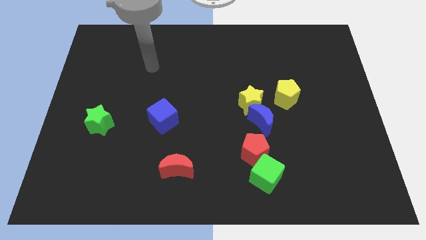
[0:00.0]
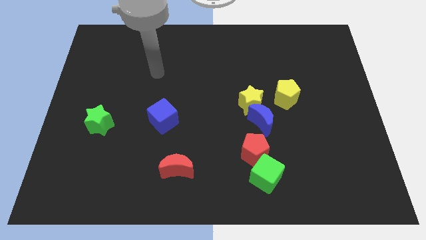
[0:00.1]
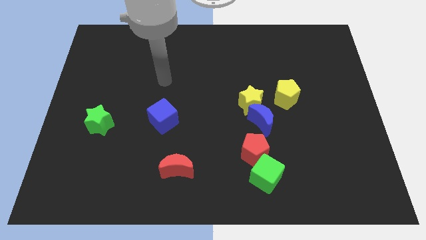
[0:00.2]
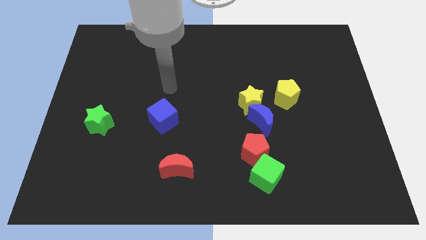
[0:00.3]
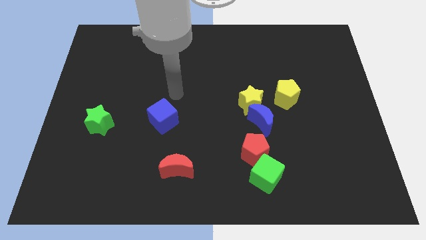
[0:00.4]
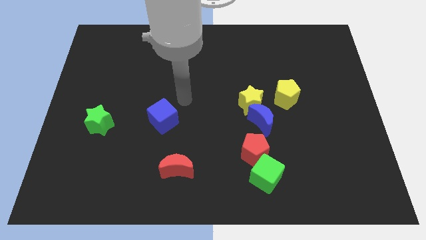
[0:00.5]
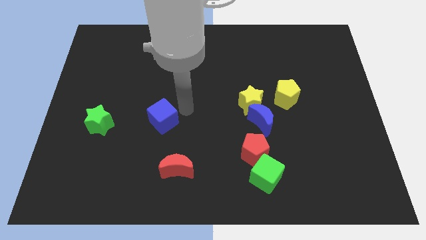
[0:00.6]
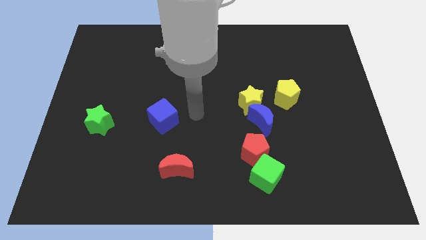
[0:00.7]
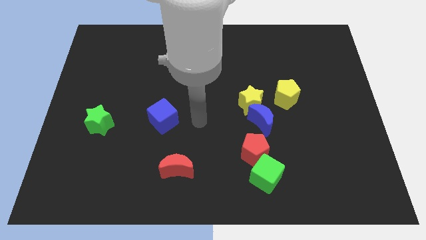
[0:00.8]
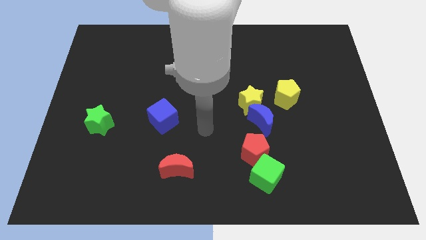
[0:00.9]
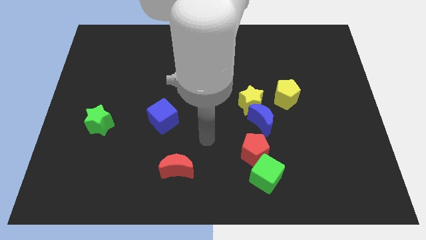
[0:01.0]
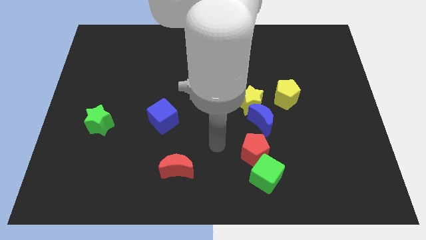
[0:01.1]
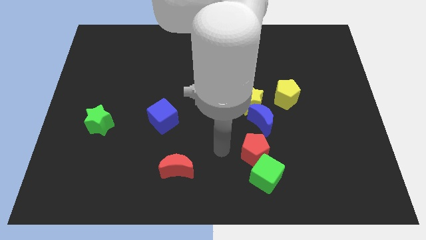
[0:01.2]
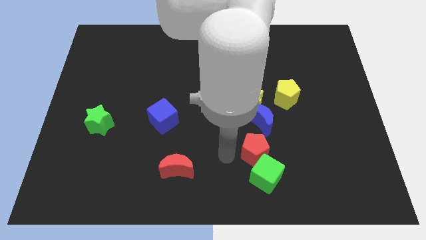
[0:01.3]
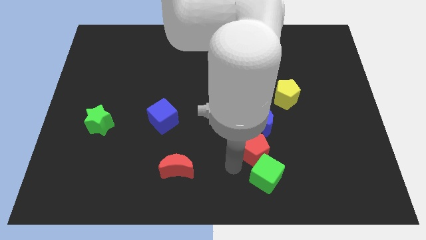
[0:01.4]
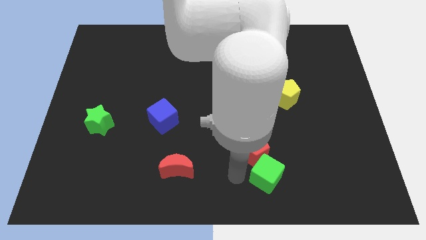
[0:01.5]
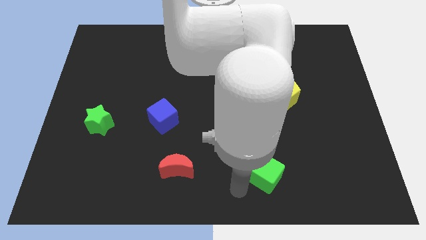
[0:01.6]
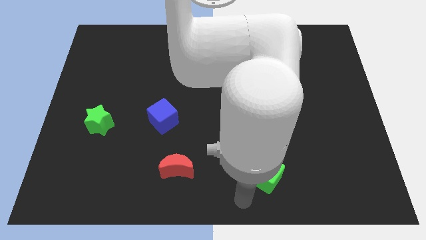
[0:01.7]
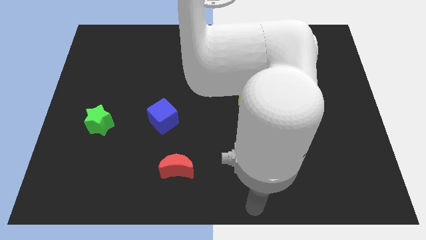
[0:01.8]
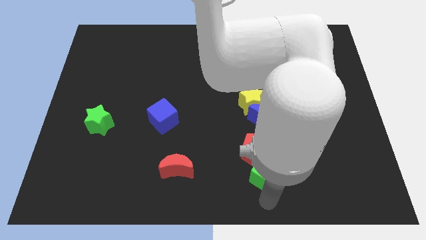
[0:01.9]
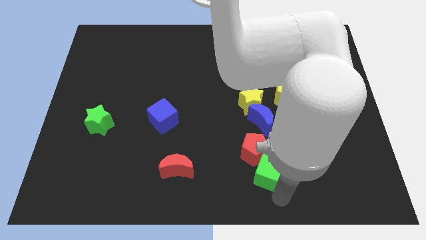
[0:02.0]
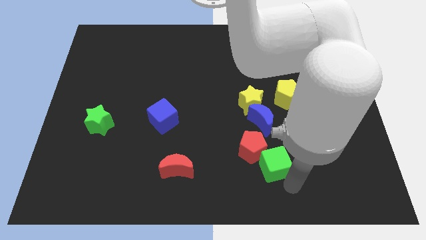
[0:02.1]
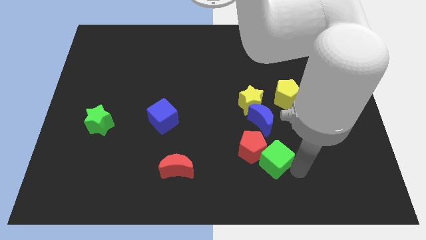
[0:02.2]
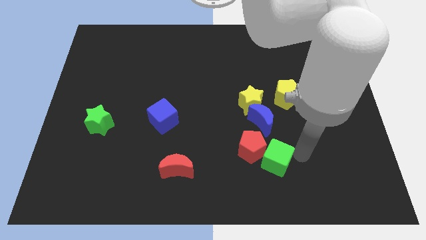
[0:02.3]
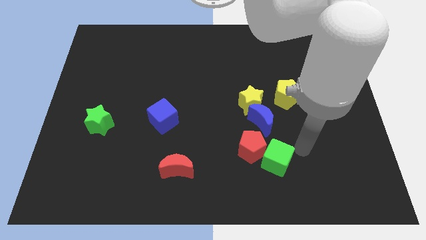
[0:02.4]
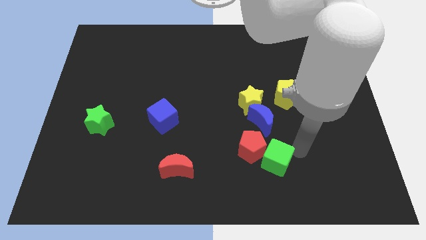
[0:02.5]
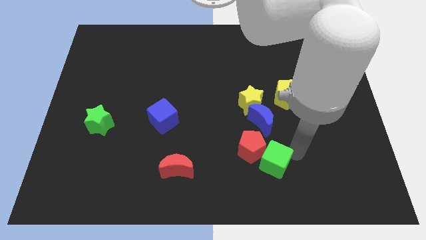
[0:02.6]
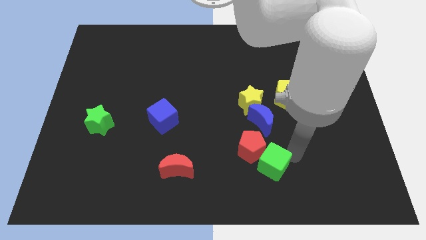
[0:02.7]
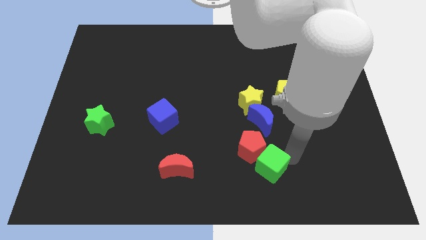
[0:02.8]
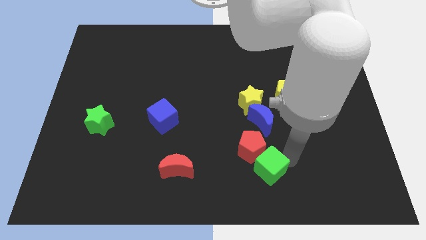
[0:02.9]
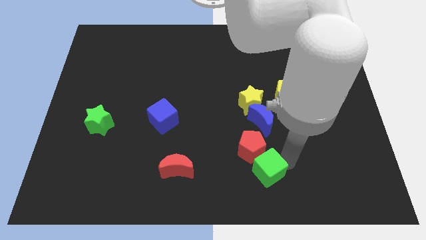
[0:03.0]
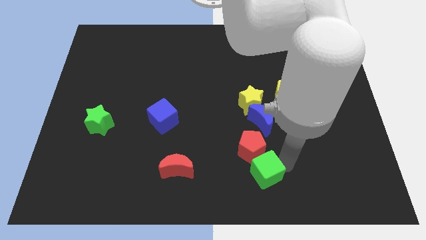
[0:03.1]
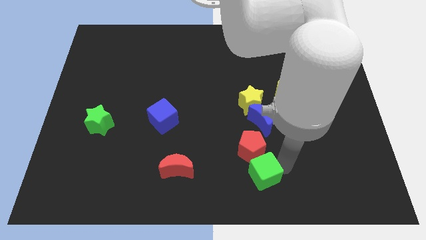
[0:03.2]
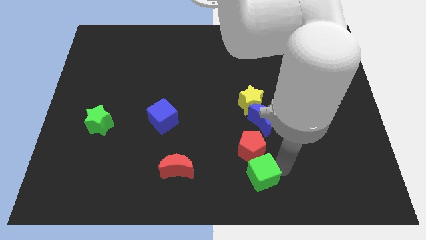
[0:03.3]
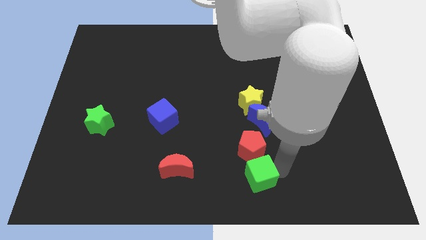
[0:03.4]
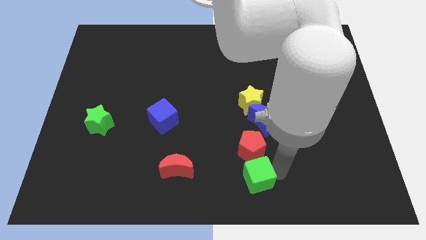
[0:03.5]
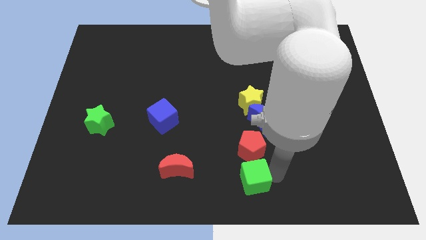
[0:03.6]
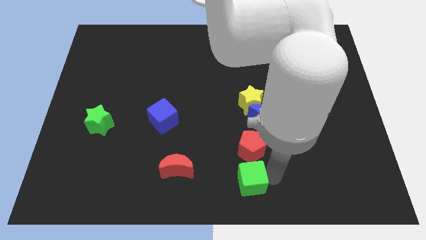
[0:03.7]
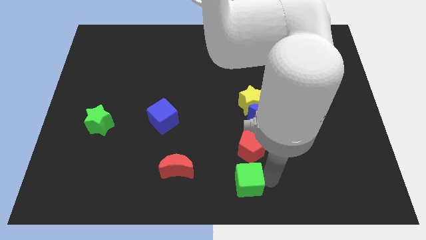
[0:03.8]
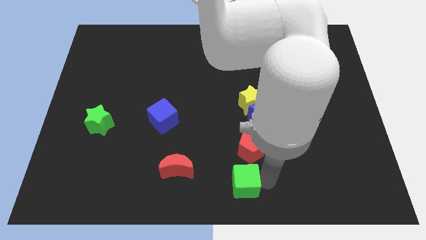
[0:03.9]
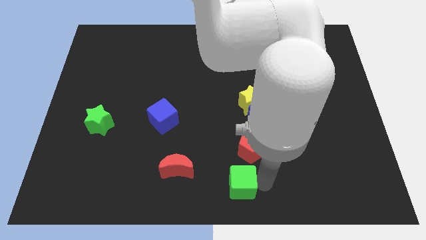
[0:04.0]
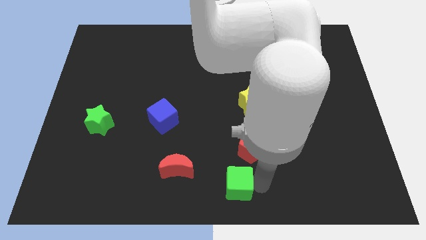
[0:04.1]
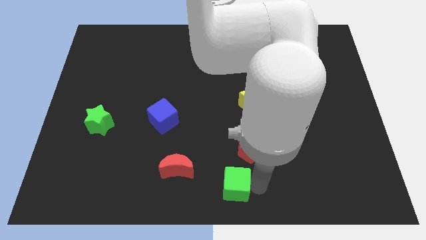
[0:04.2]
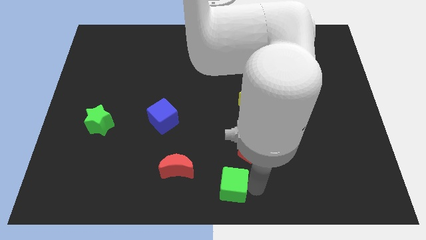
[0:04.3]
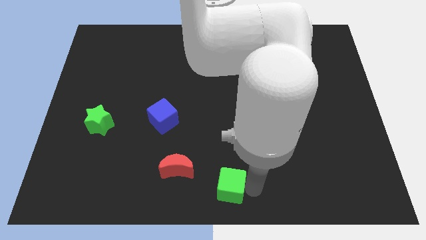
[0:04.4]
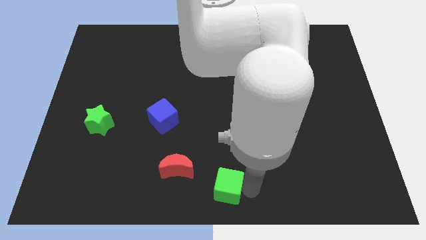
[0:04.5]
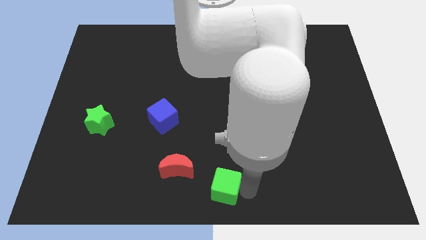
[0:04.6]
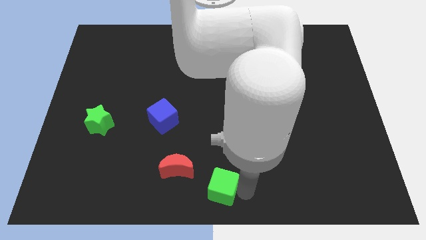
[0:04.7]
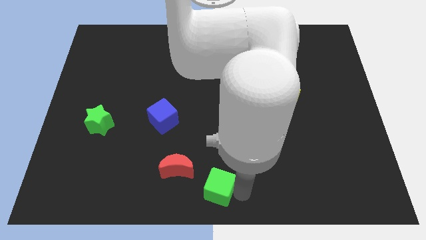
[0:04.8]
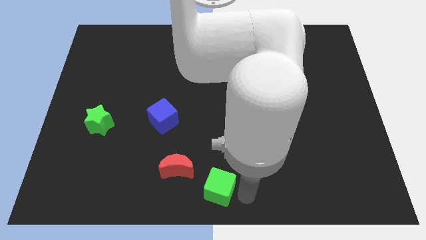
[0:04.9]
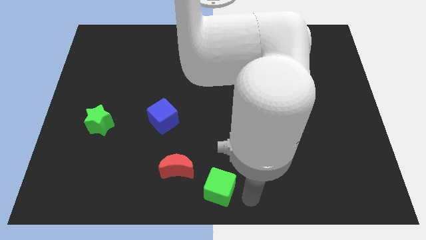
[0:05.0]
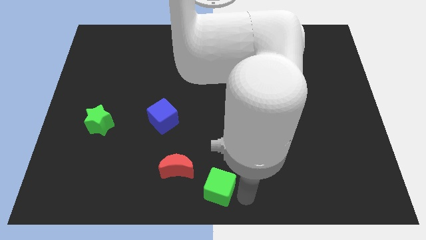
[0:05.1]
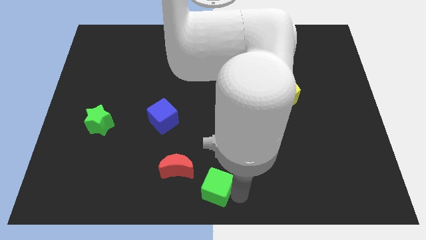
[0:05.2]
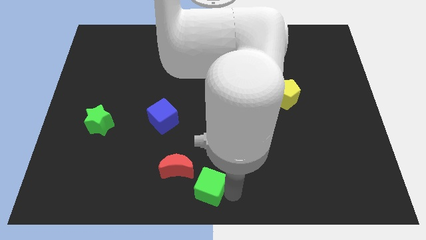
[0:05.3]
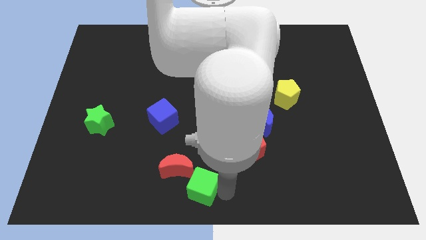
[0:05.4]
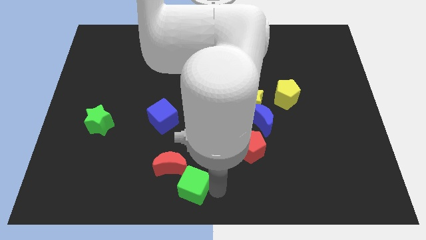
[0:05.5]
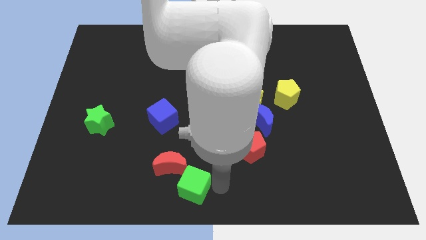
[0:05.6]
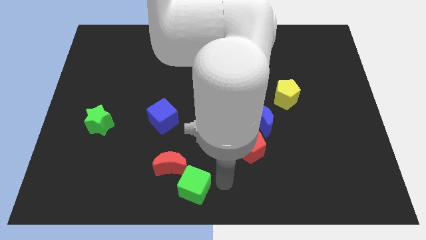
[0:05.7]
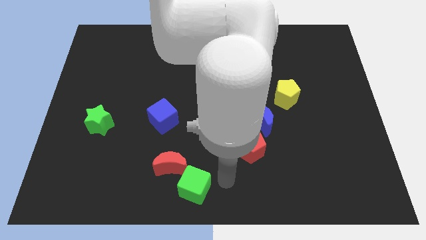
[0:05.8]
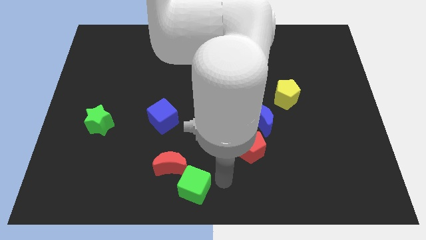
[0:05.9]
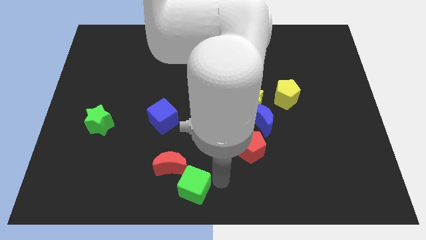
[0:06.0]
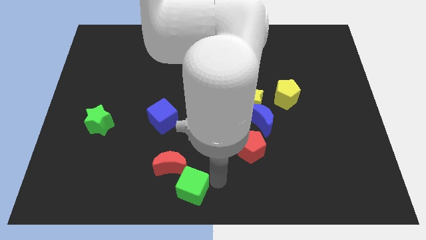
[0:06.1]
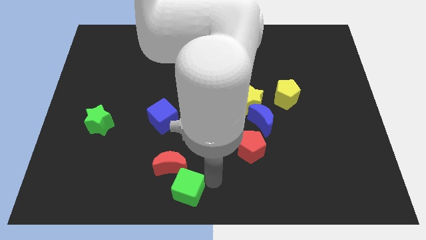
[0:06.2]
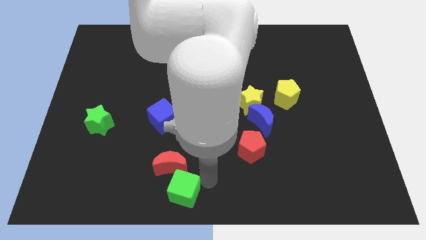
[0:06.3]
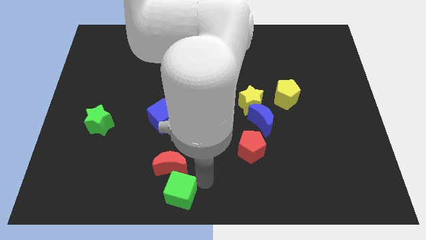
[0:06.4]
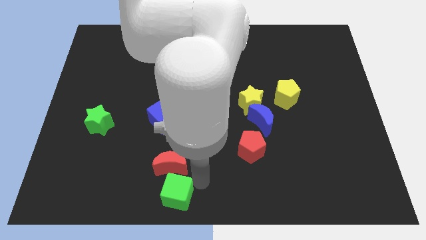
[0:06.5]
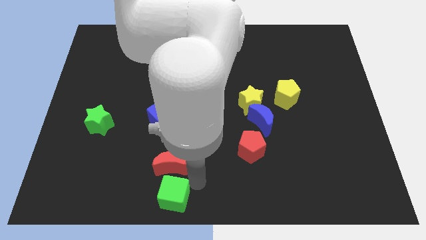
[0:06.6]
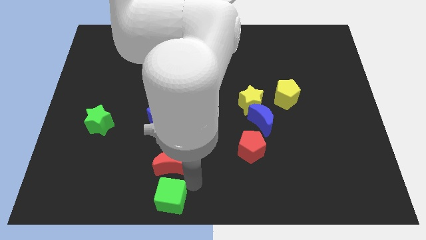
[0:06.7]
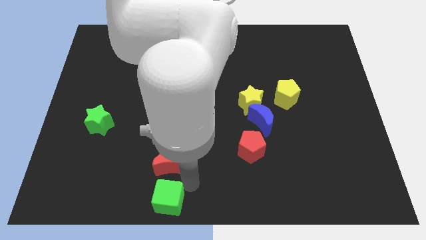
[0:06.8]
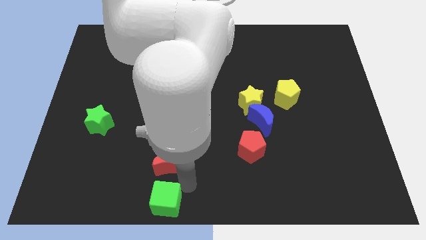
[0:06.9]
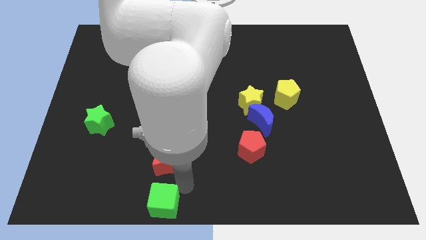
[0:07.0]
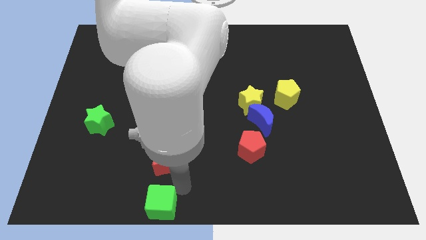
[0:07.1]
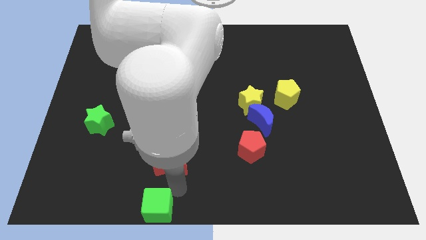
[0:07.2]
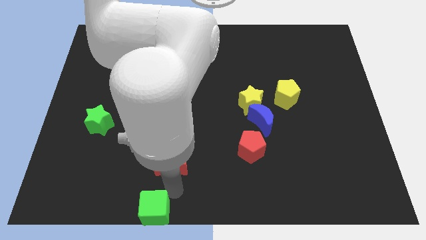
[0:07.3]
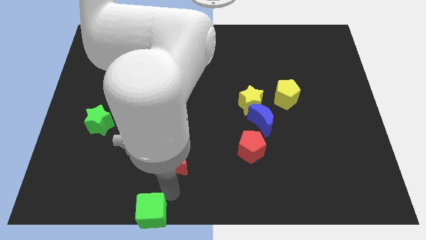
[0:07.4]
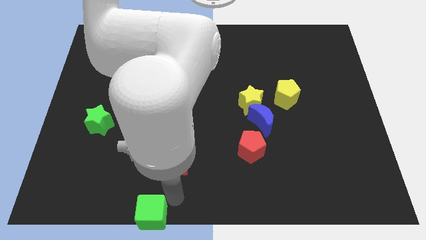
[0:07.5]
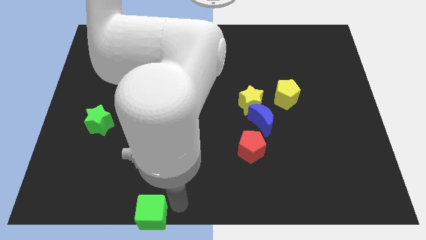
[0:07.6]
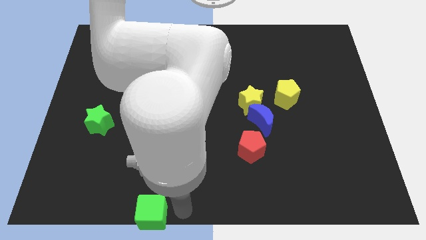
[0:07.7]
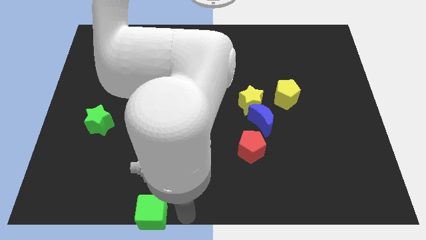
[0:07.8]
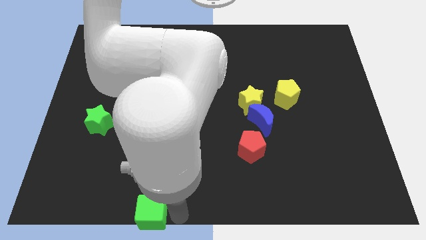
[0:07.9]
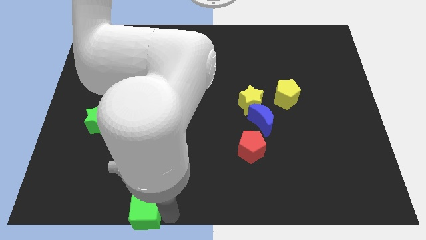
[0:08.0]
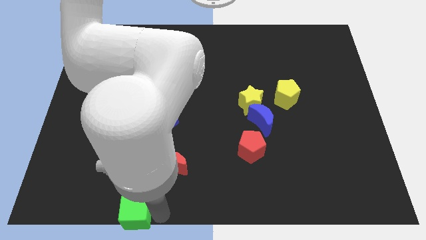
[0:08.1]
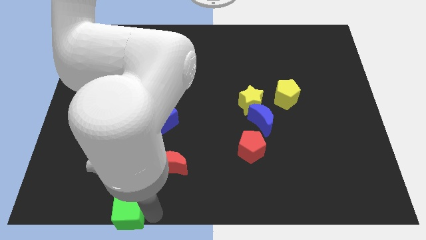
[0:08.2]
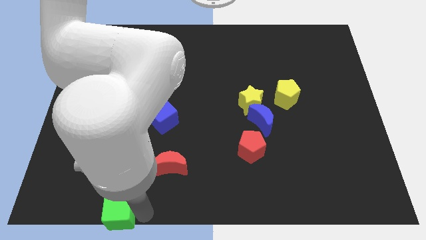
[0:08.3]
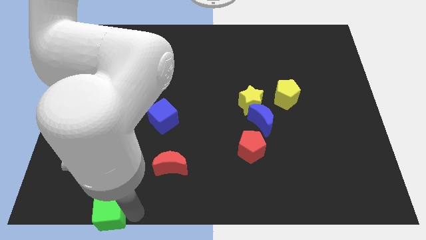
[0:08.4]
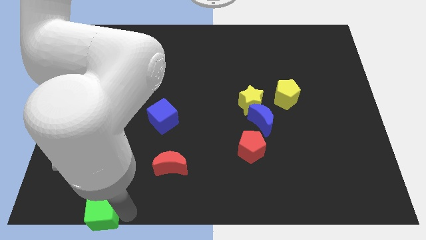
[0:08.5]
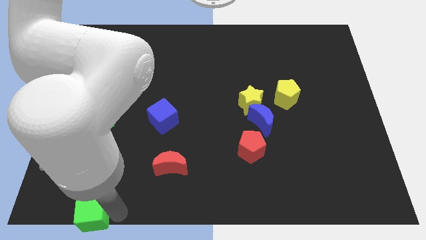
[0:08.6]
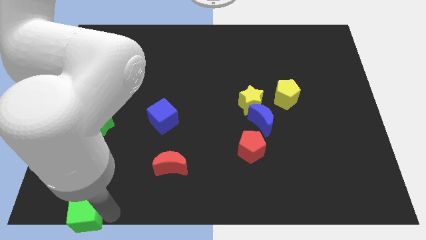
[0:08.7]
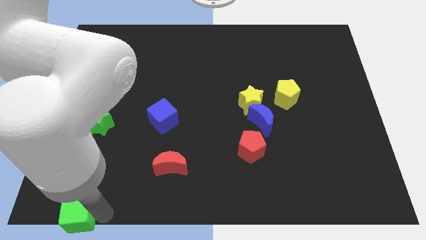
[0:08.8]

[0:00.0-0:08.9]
move the green cube to the bottom left of the board
